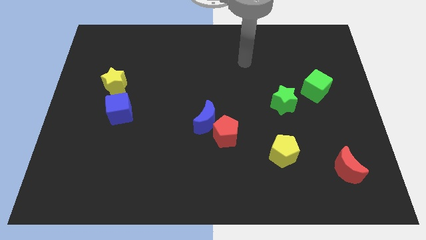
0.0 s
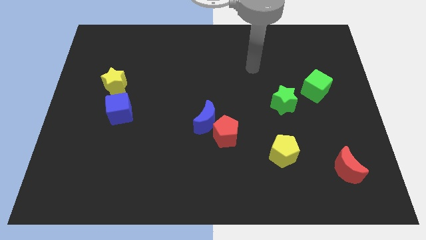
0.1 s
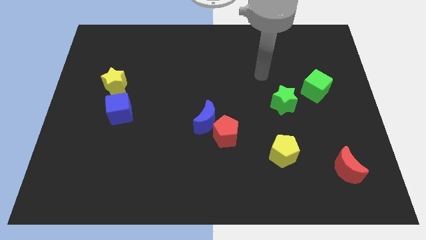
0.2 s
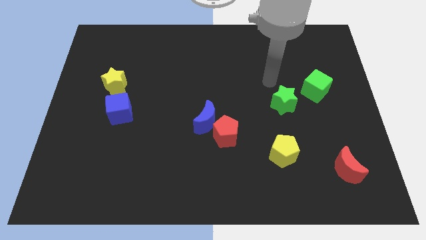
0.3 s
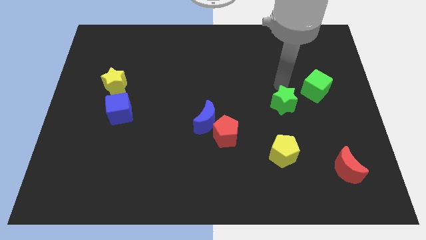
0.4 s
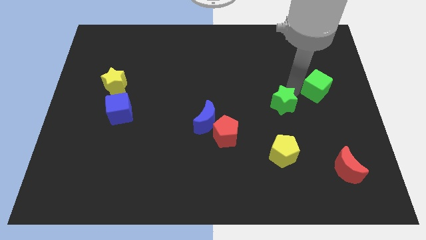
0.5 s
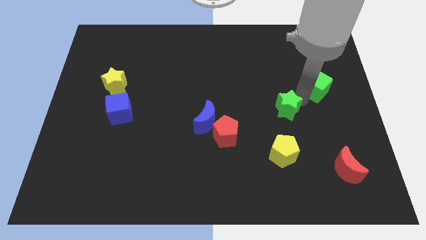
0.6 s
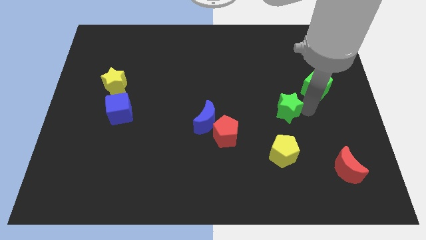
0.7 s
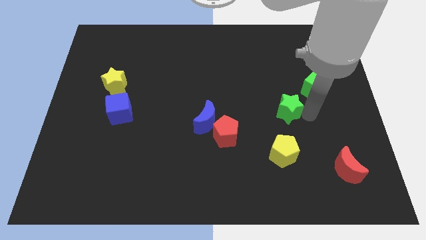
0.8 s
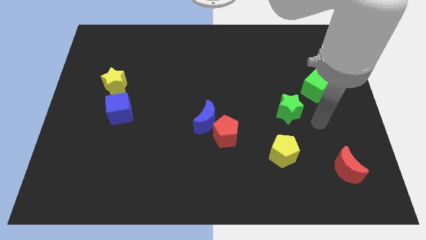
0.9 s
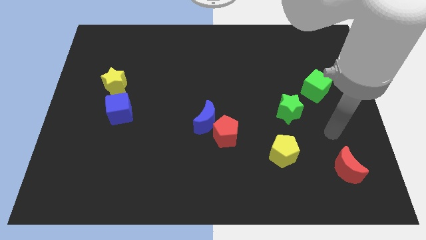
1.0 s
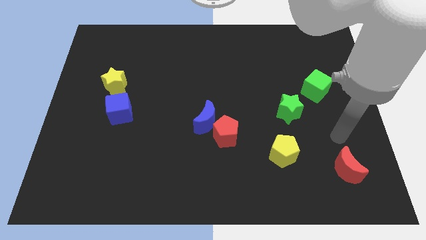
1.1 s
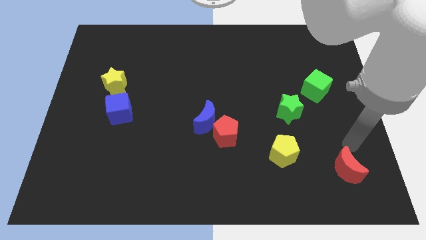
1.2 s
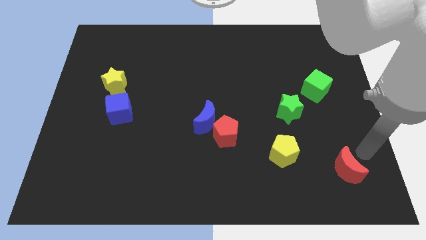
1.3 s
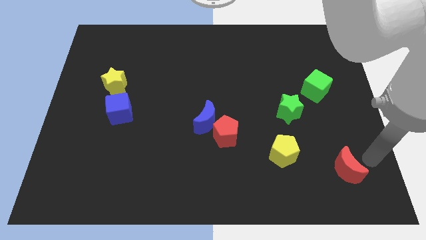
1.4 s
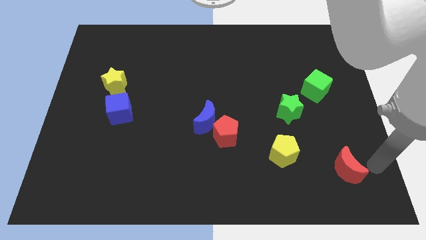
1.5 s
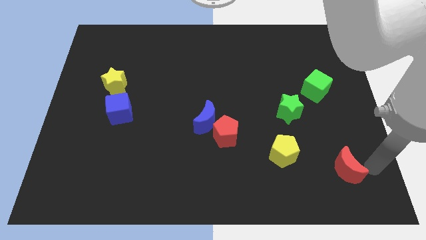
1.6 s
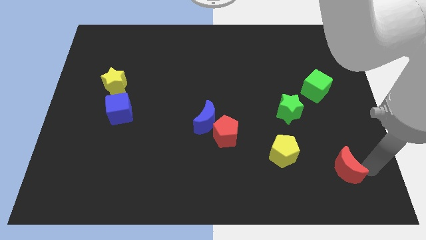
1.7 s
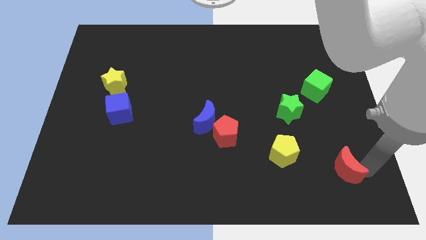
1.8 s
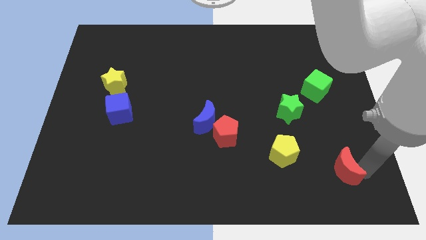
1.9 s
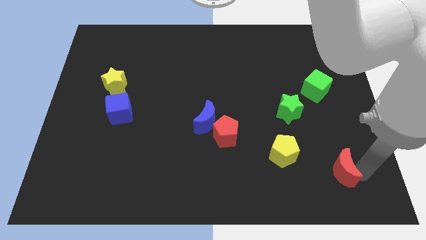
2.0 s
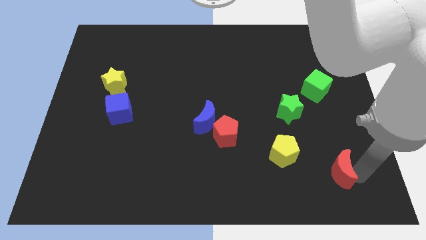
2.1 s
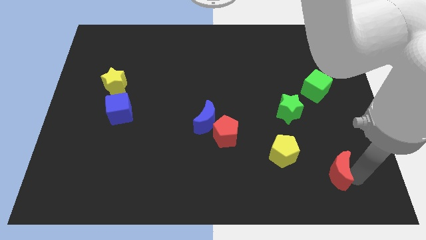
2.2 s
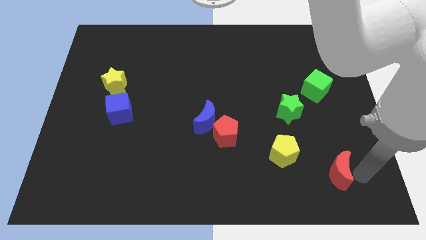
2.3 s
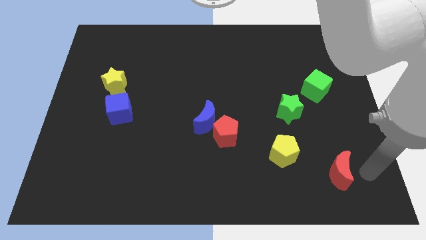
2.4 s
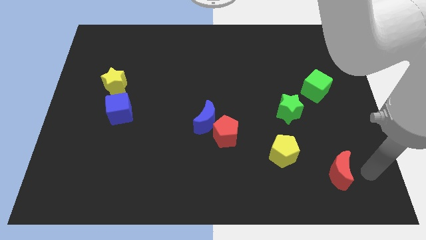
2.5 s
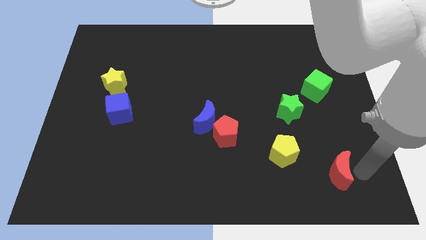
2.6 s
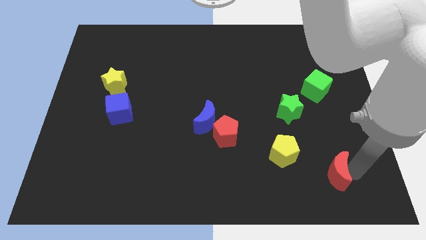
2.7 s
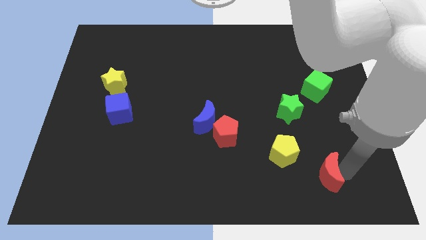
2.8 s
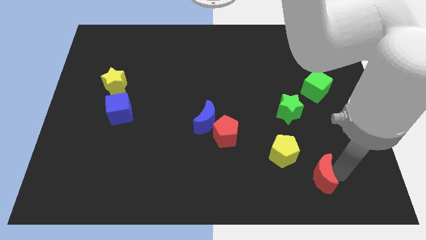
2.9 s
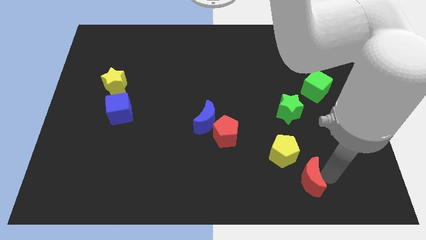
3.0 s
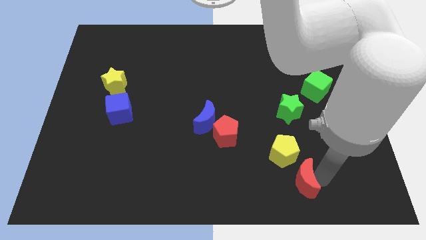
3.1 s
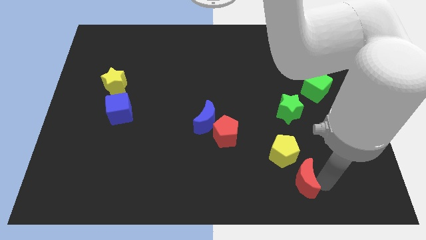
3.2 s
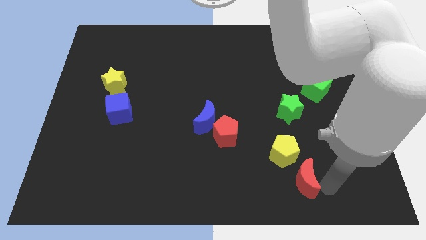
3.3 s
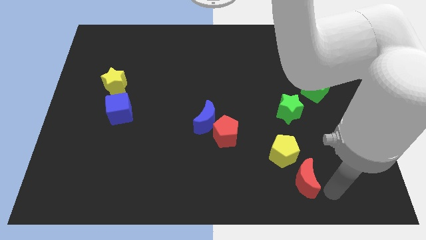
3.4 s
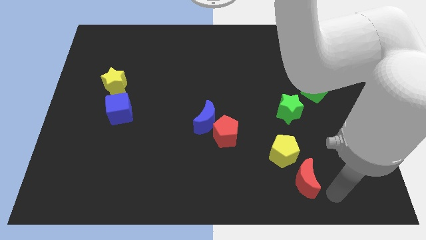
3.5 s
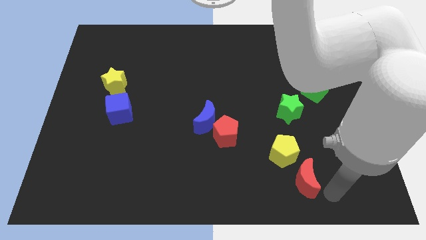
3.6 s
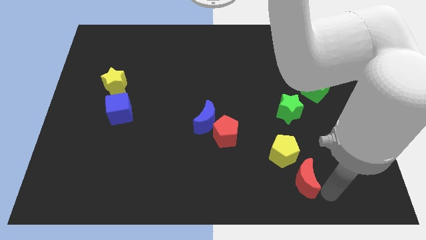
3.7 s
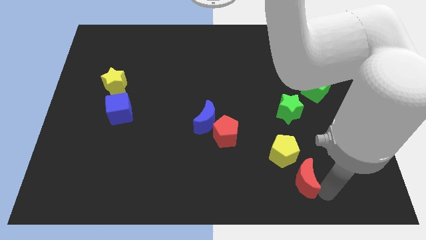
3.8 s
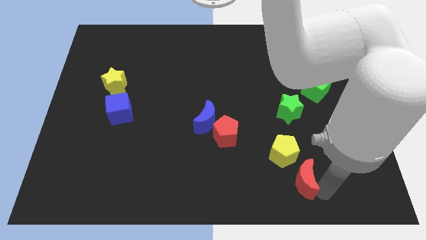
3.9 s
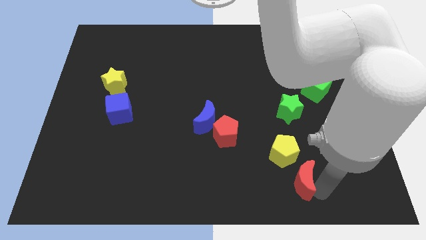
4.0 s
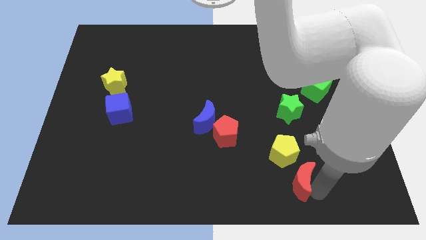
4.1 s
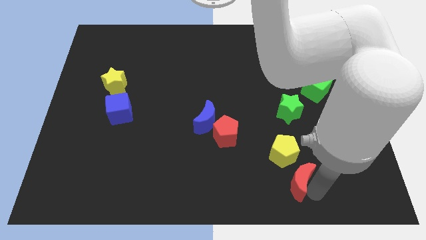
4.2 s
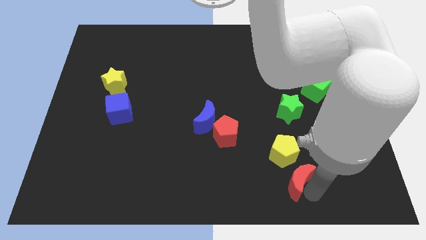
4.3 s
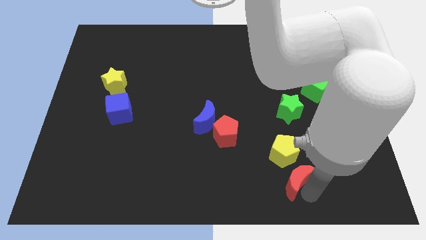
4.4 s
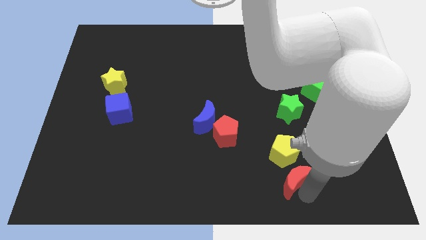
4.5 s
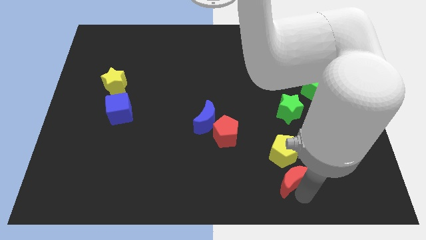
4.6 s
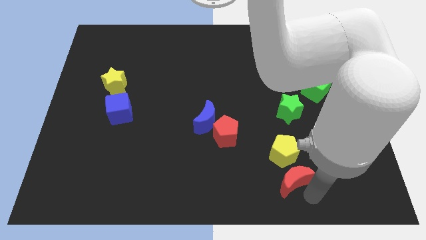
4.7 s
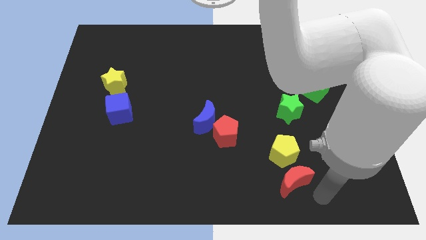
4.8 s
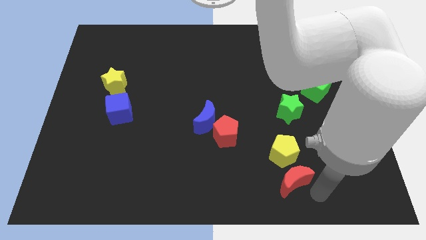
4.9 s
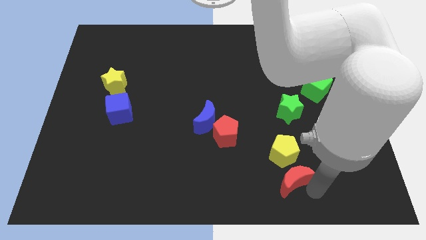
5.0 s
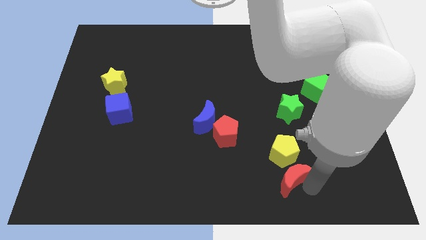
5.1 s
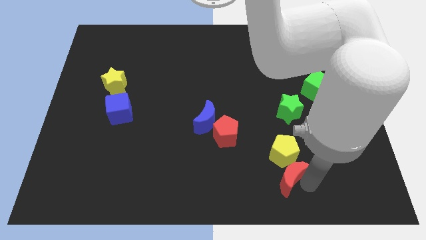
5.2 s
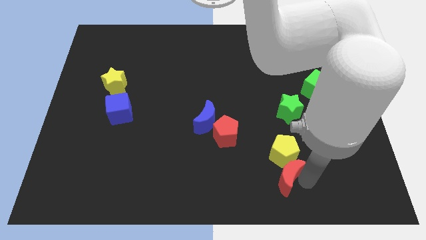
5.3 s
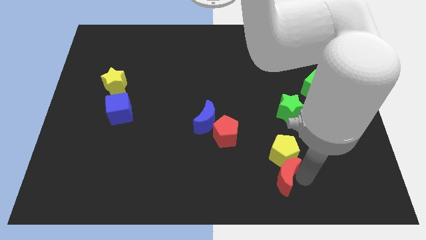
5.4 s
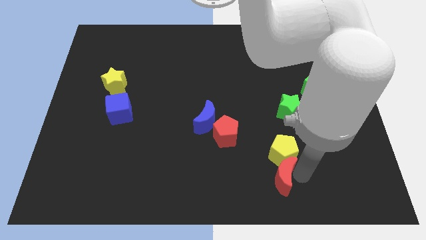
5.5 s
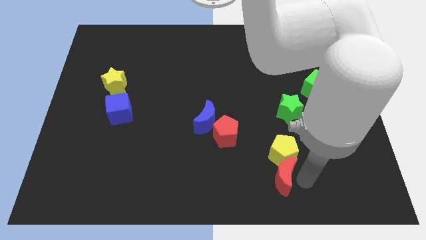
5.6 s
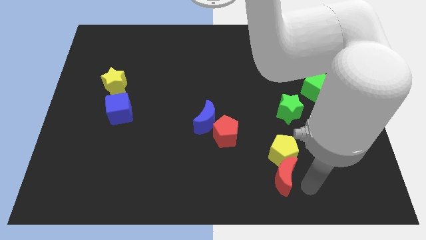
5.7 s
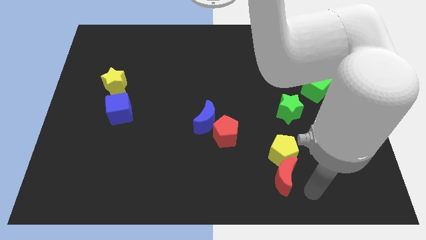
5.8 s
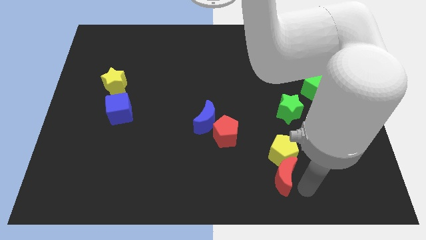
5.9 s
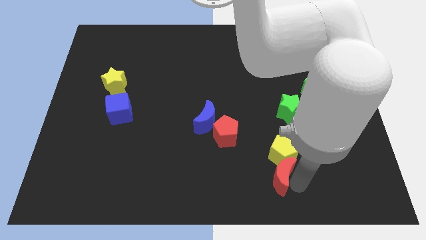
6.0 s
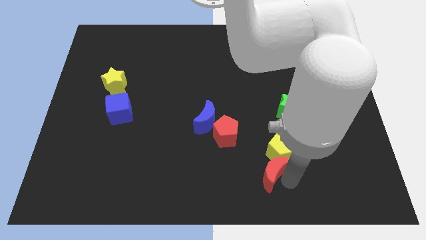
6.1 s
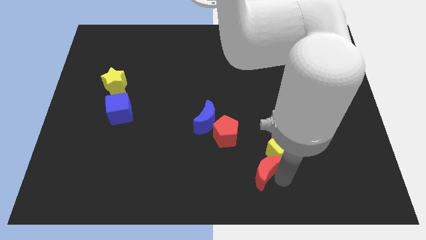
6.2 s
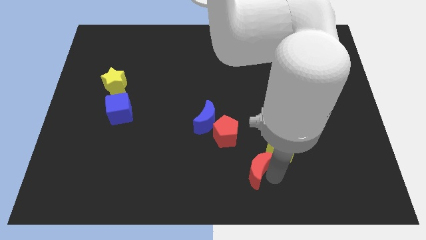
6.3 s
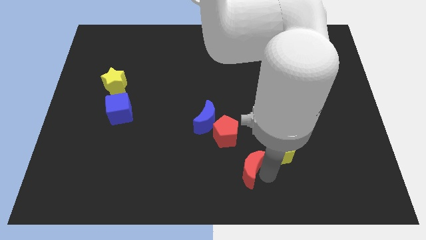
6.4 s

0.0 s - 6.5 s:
slide the red moon to the left

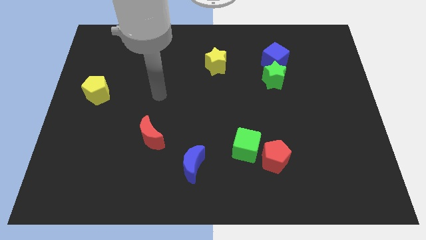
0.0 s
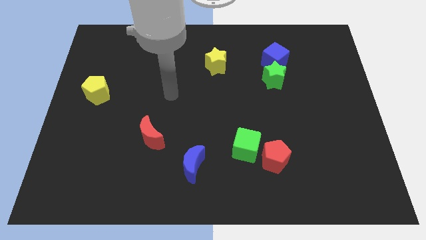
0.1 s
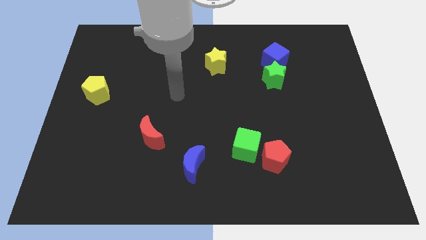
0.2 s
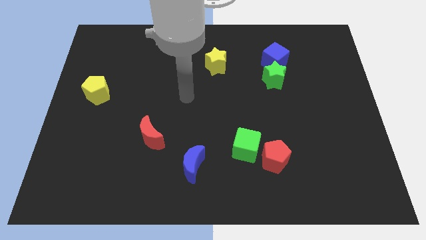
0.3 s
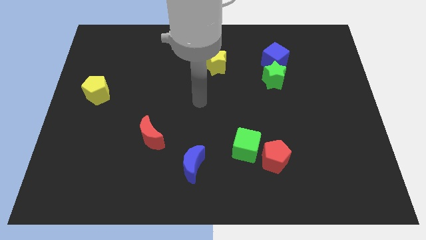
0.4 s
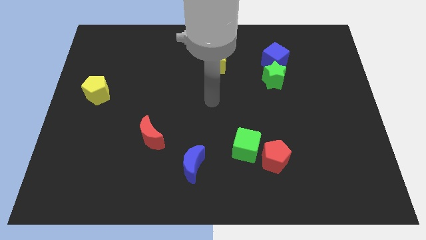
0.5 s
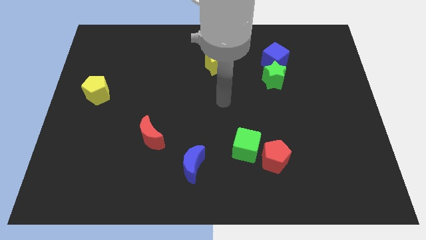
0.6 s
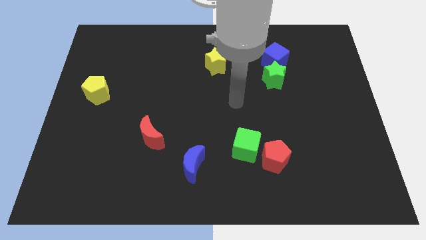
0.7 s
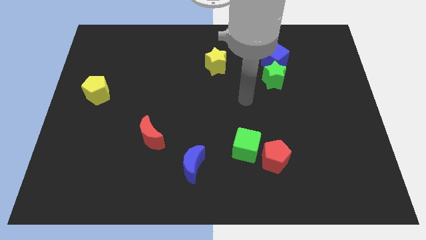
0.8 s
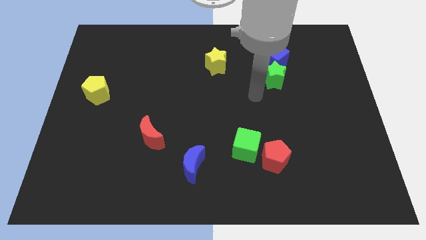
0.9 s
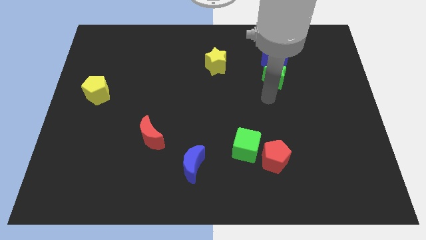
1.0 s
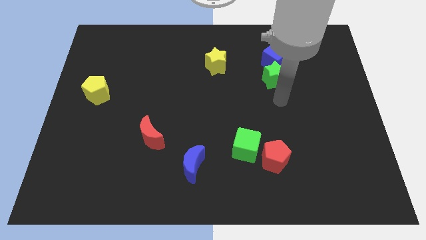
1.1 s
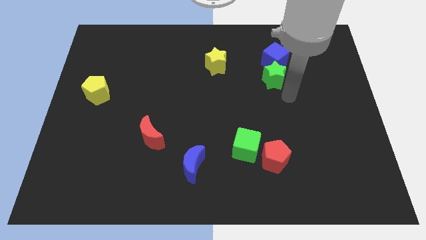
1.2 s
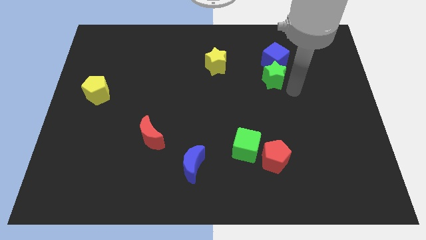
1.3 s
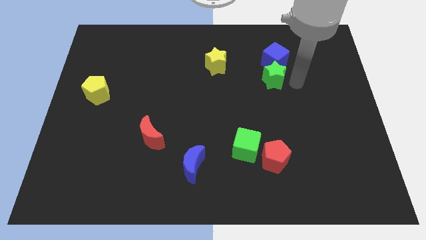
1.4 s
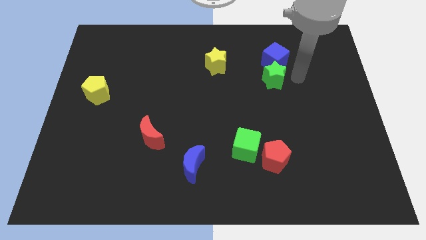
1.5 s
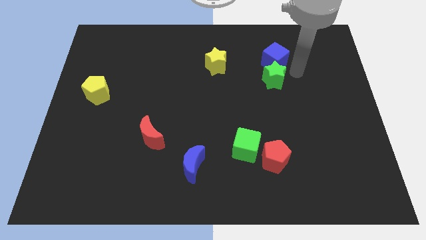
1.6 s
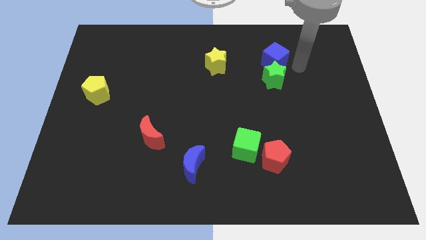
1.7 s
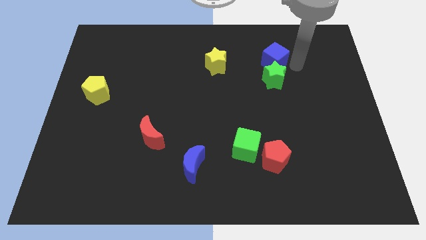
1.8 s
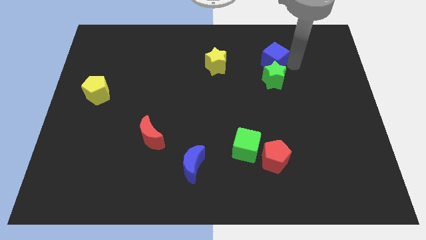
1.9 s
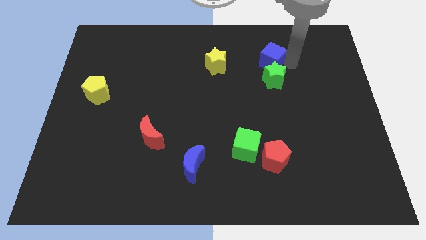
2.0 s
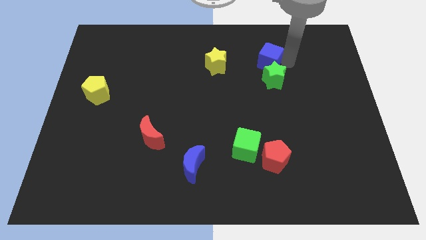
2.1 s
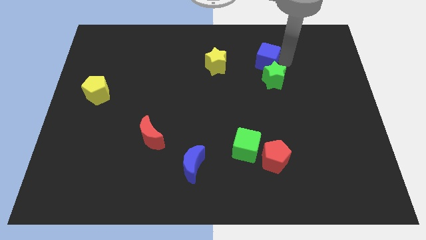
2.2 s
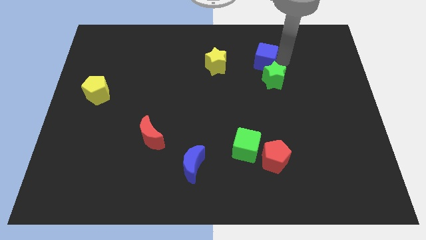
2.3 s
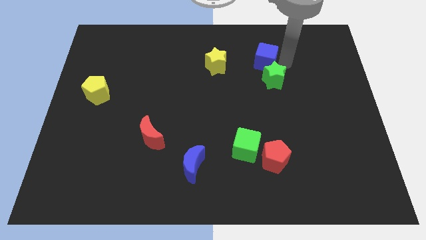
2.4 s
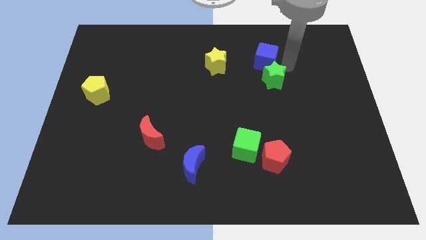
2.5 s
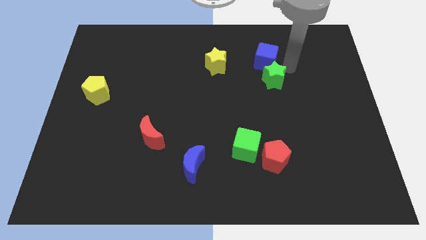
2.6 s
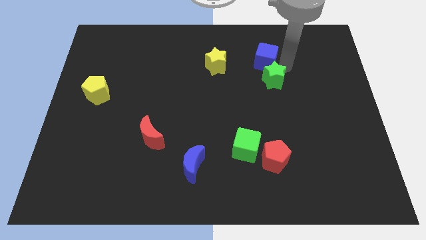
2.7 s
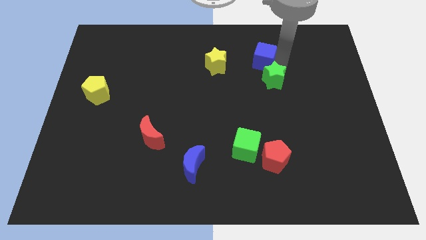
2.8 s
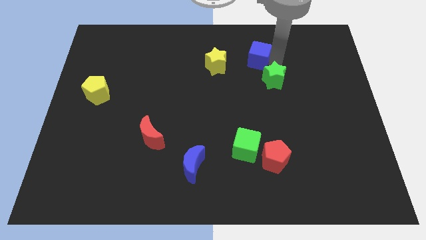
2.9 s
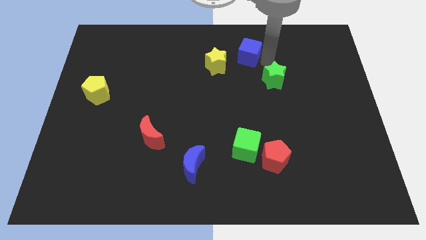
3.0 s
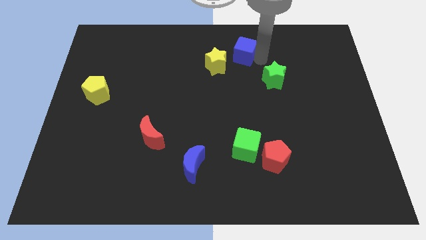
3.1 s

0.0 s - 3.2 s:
push the blue cube to the left a little bit
